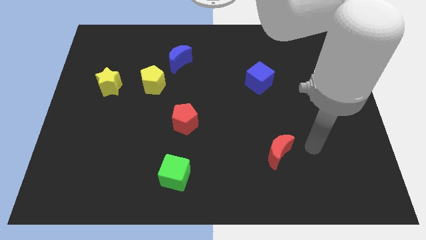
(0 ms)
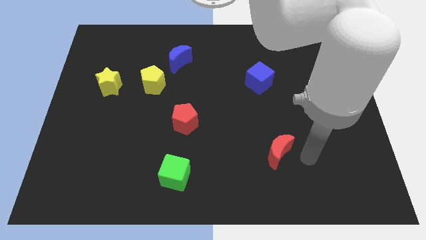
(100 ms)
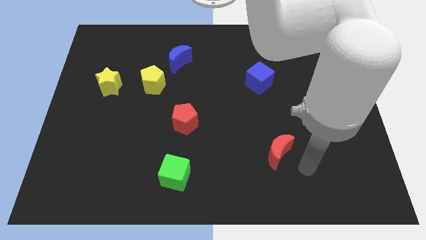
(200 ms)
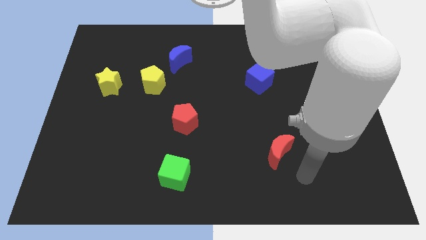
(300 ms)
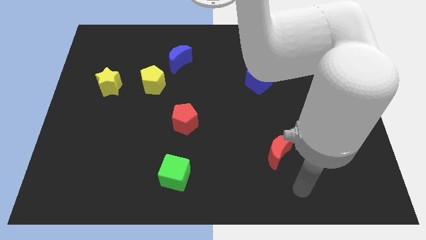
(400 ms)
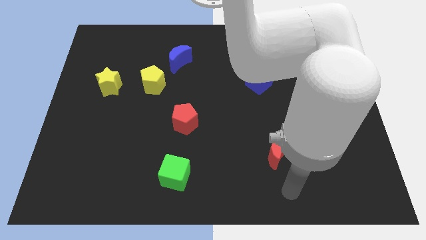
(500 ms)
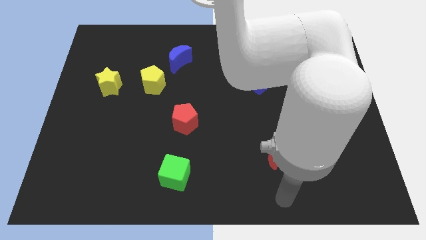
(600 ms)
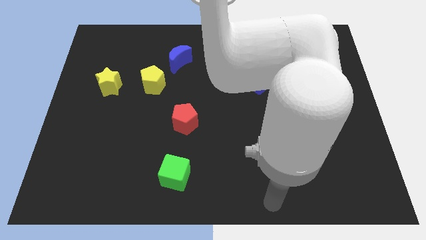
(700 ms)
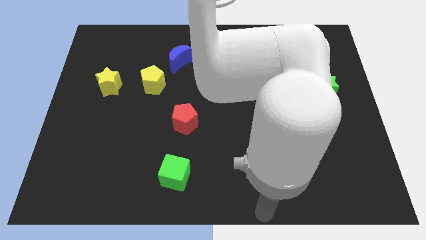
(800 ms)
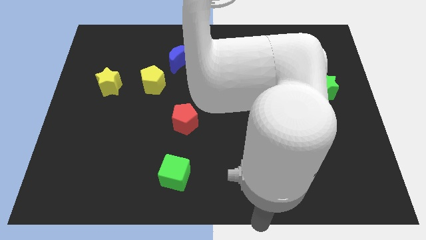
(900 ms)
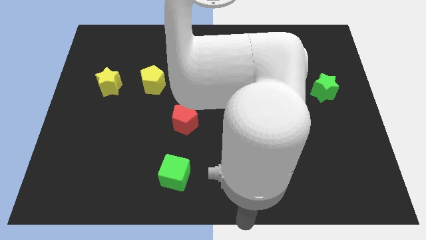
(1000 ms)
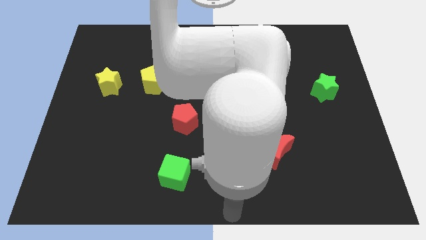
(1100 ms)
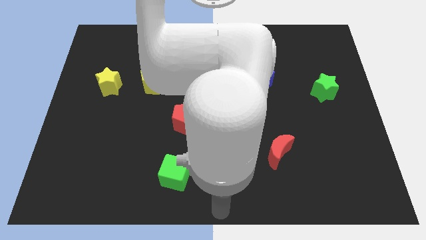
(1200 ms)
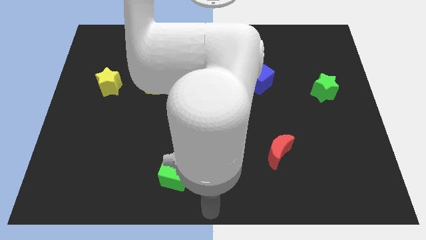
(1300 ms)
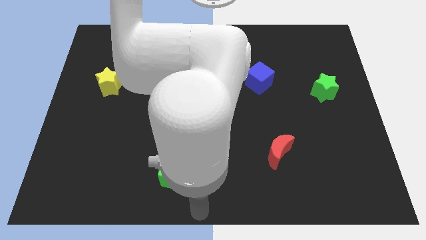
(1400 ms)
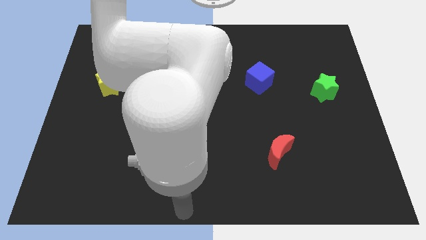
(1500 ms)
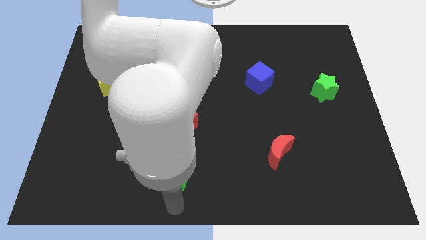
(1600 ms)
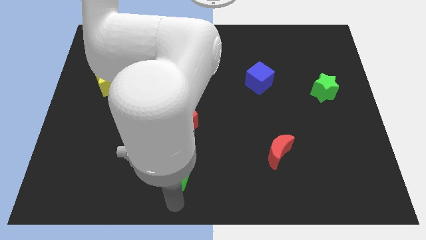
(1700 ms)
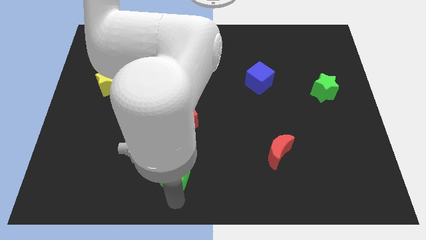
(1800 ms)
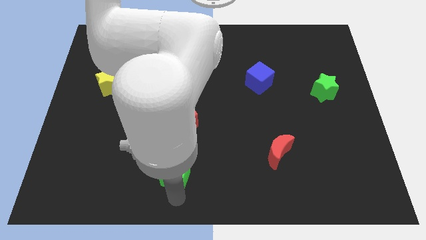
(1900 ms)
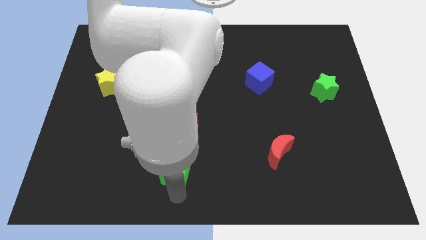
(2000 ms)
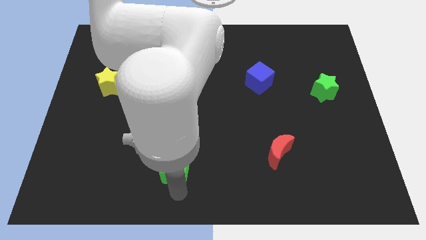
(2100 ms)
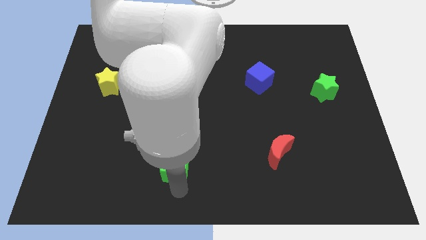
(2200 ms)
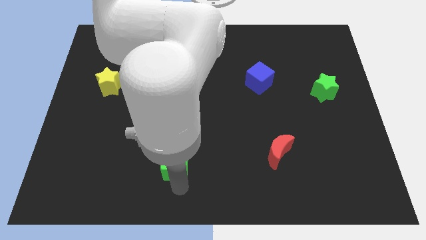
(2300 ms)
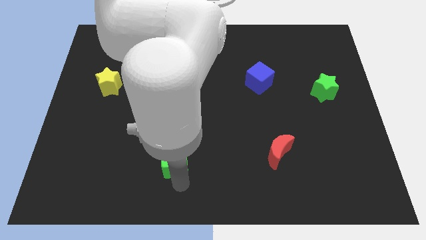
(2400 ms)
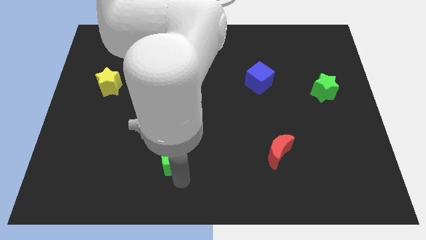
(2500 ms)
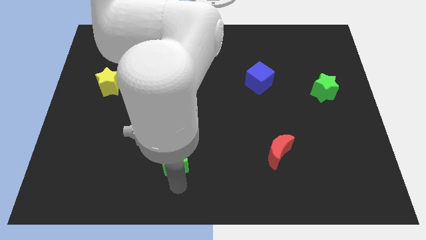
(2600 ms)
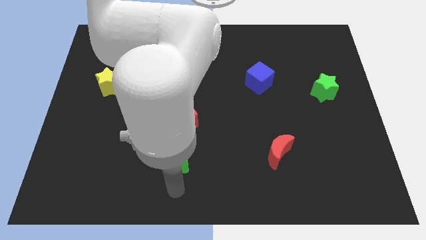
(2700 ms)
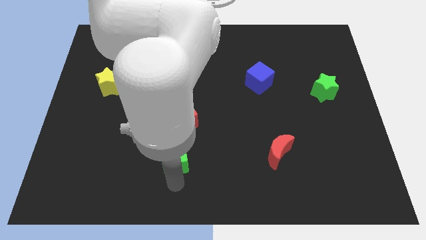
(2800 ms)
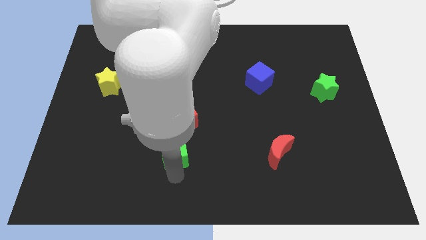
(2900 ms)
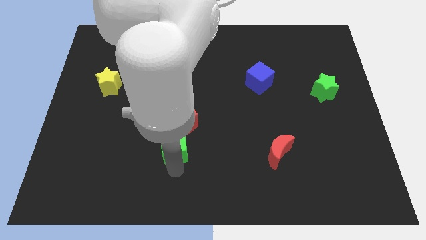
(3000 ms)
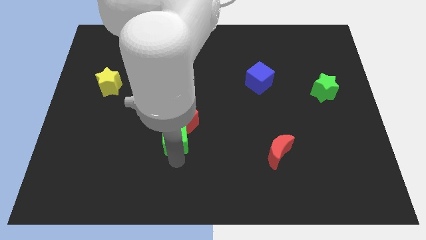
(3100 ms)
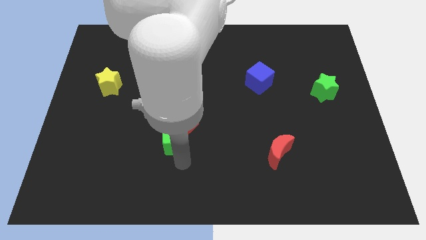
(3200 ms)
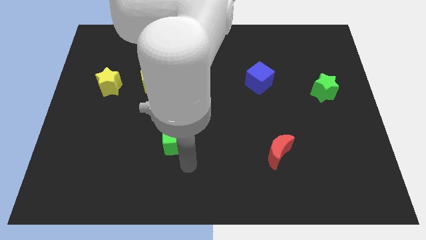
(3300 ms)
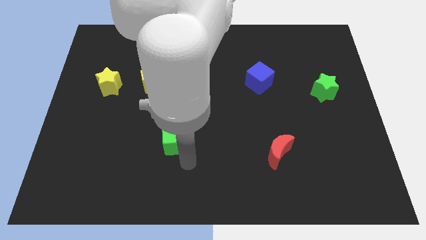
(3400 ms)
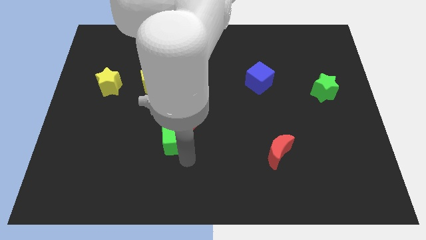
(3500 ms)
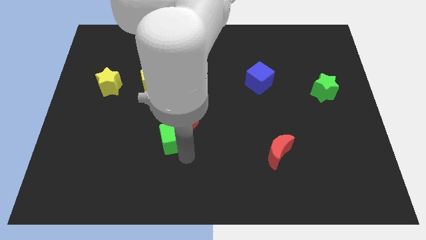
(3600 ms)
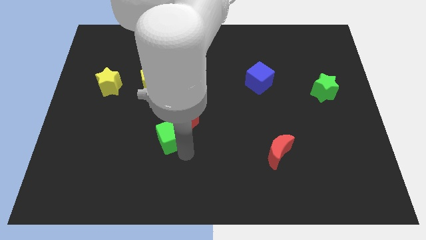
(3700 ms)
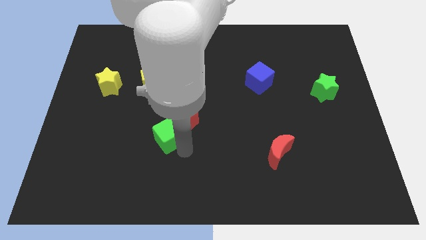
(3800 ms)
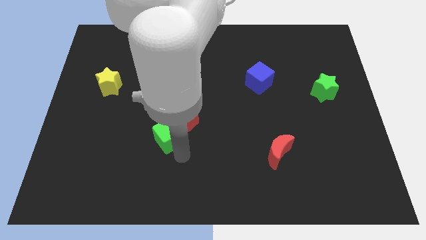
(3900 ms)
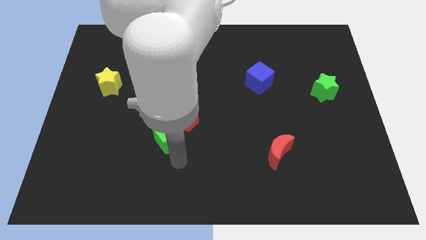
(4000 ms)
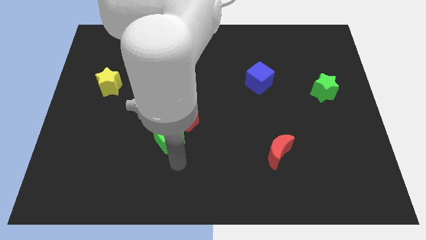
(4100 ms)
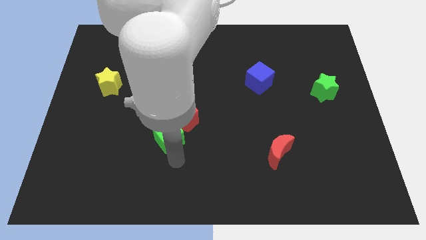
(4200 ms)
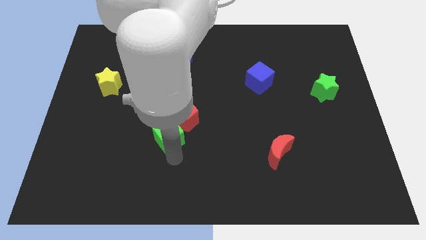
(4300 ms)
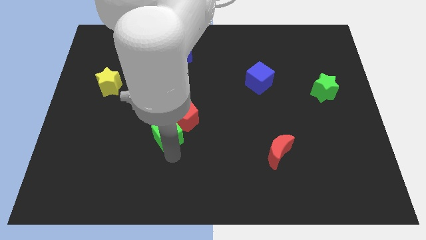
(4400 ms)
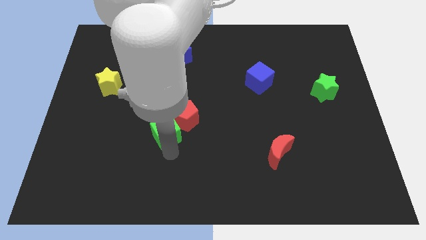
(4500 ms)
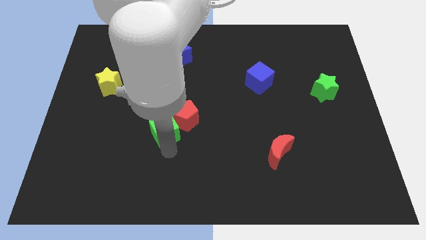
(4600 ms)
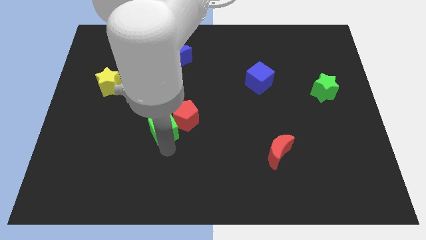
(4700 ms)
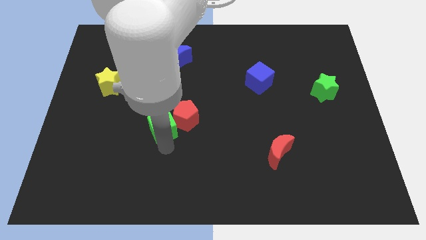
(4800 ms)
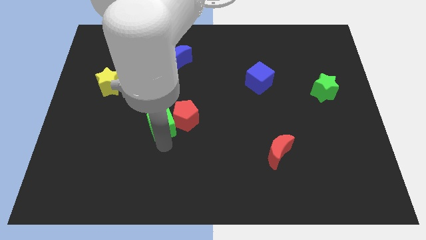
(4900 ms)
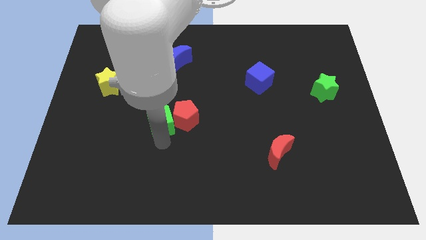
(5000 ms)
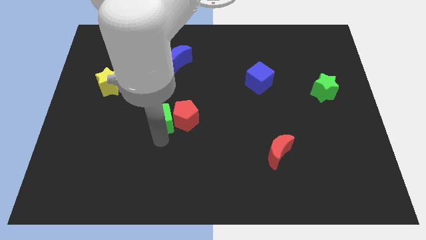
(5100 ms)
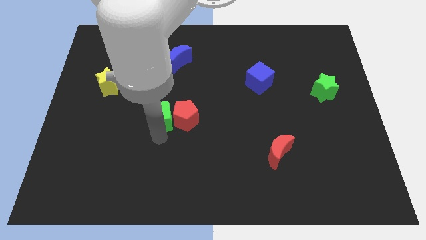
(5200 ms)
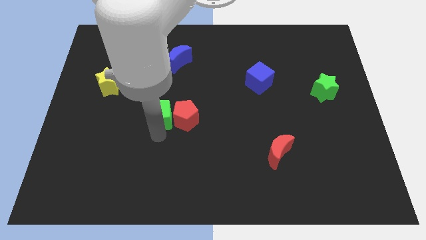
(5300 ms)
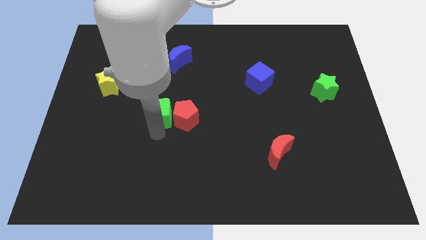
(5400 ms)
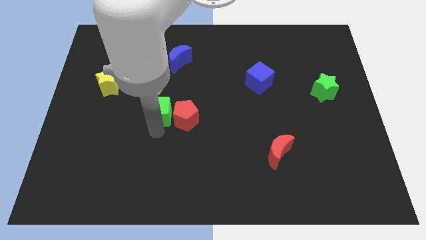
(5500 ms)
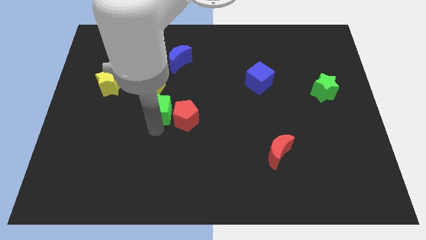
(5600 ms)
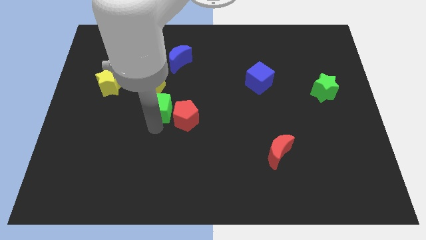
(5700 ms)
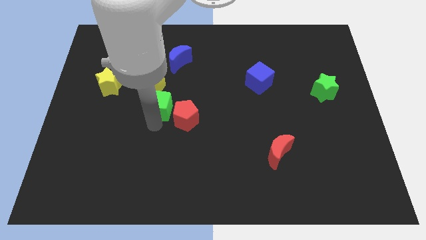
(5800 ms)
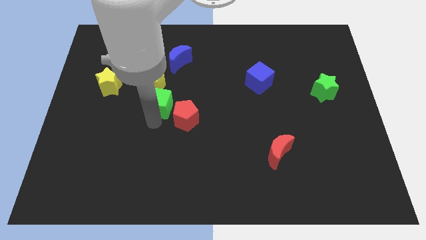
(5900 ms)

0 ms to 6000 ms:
push the green cube below the blue moon

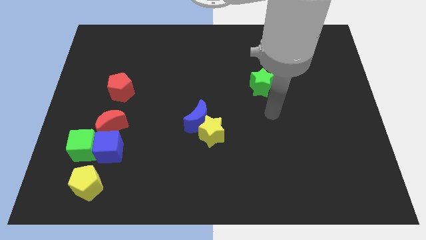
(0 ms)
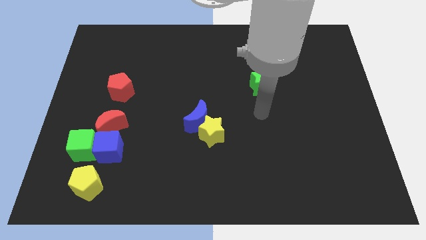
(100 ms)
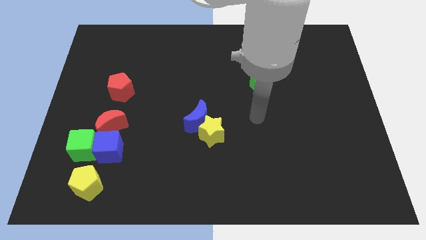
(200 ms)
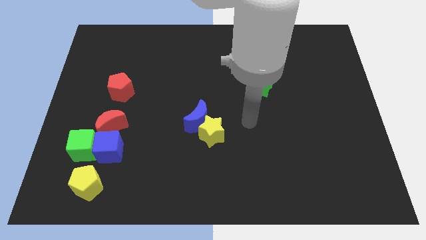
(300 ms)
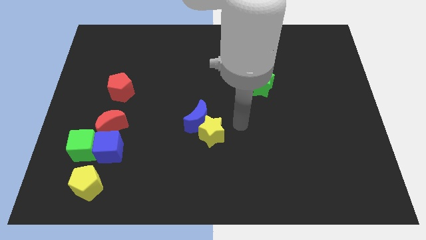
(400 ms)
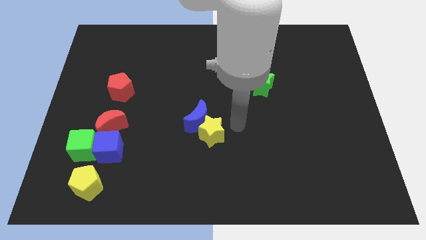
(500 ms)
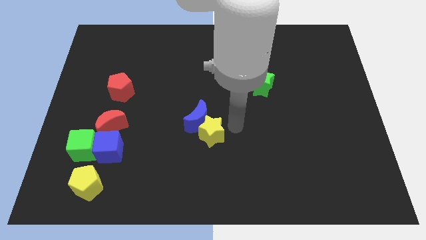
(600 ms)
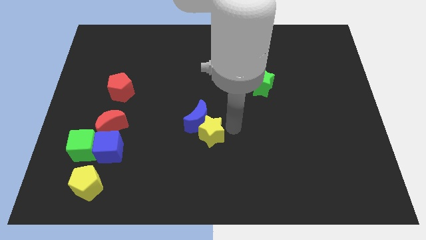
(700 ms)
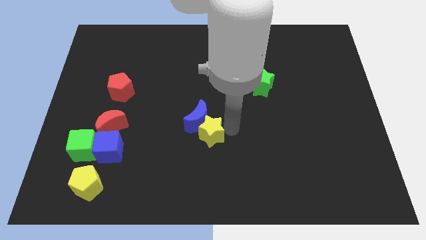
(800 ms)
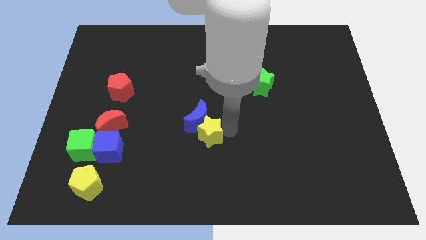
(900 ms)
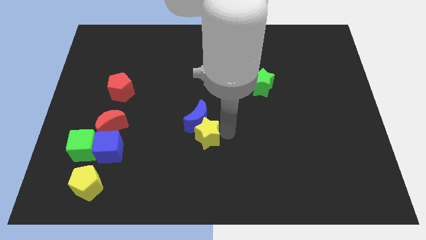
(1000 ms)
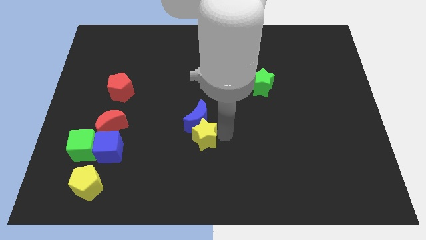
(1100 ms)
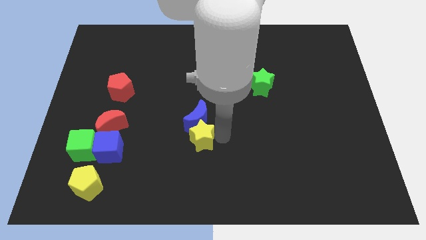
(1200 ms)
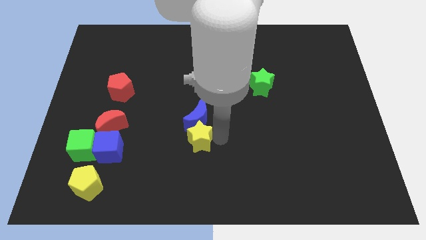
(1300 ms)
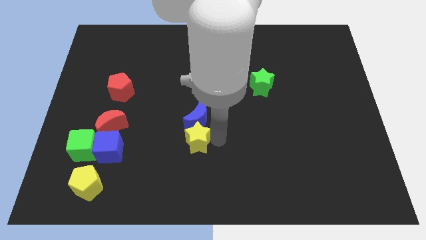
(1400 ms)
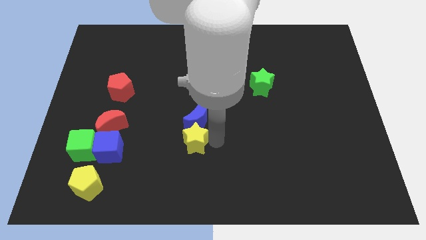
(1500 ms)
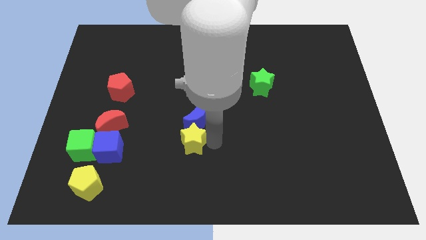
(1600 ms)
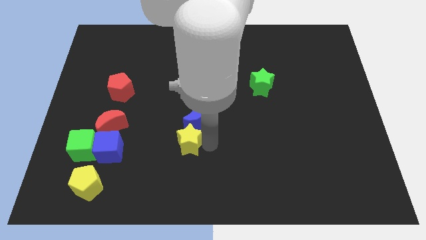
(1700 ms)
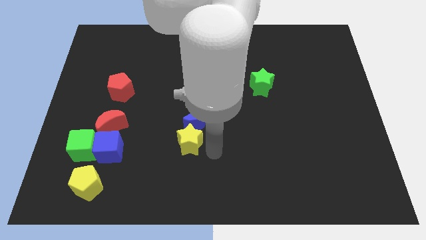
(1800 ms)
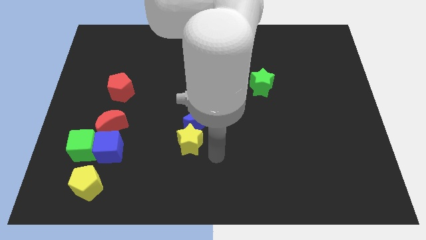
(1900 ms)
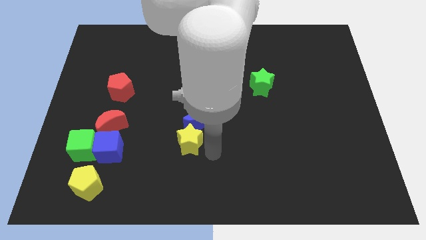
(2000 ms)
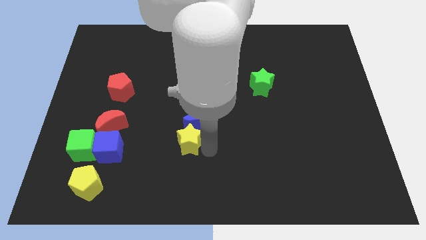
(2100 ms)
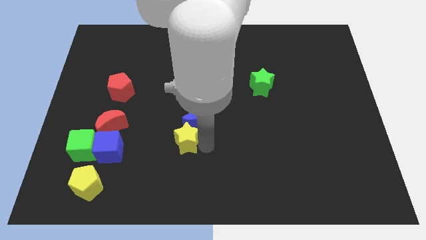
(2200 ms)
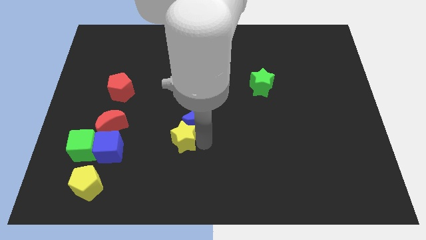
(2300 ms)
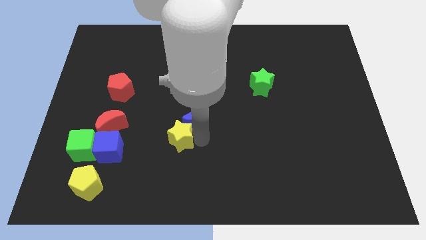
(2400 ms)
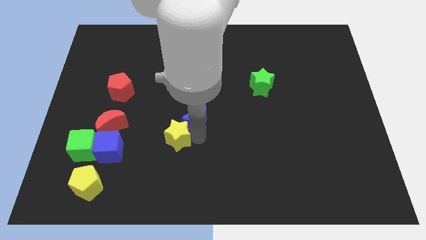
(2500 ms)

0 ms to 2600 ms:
slide the yellow star to the left side of the blue moon
